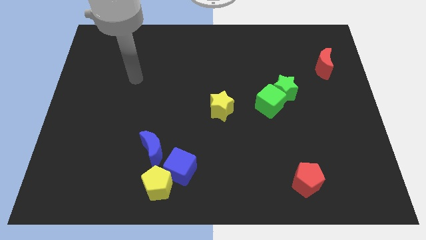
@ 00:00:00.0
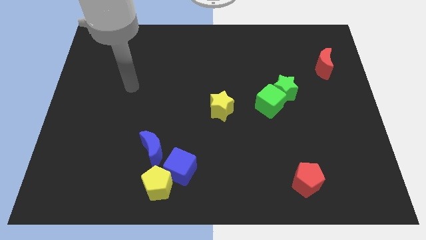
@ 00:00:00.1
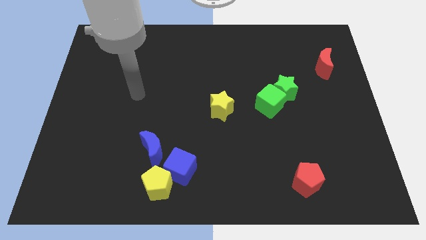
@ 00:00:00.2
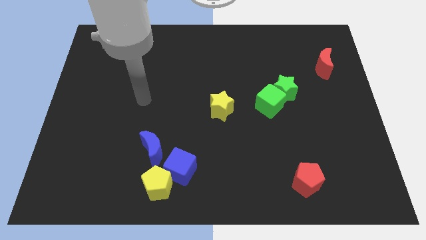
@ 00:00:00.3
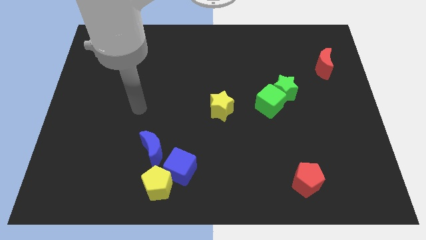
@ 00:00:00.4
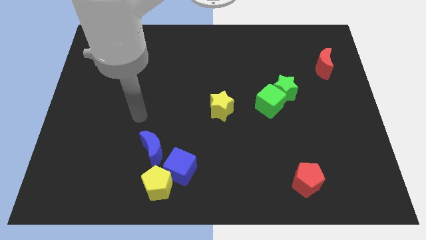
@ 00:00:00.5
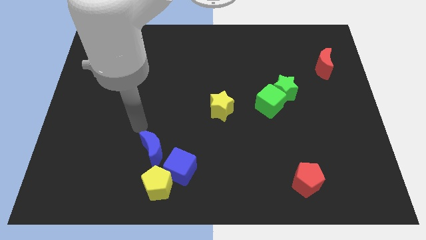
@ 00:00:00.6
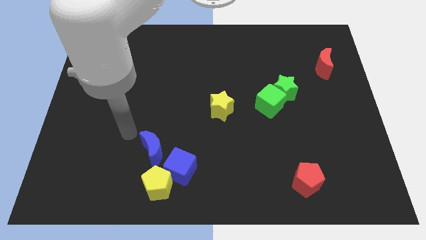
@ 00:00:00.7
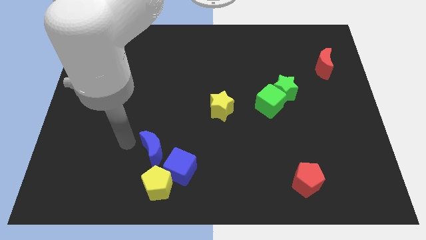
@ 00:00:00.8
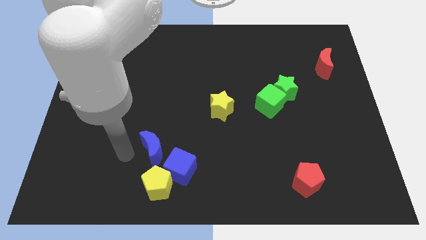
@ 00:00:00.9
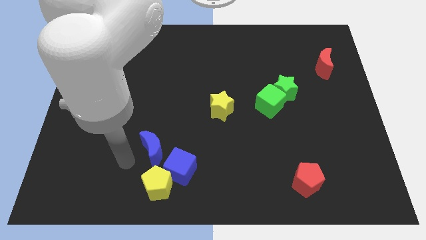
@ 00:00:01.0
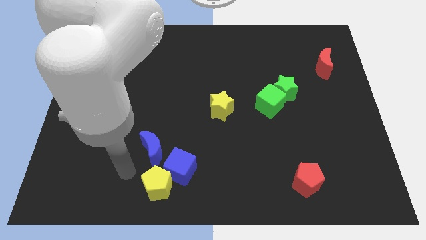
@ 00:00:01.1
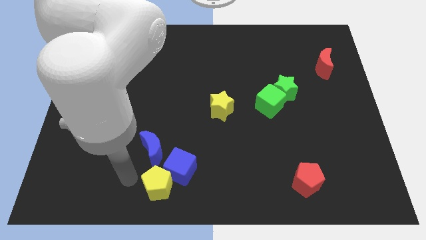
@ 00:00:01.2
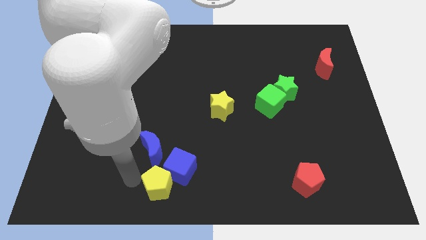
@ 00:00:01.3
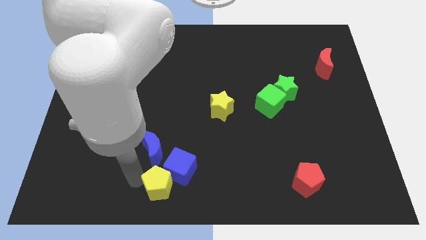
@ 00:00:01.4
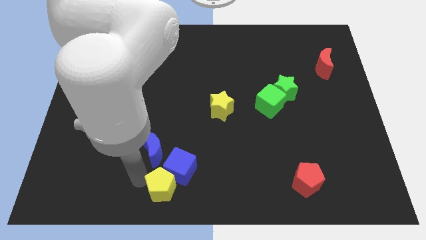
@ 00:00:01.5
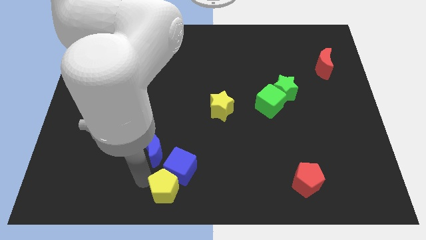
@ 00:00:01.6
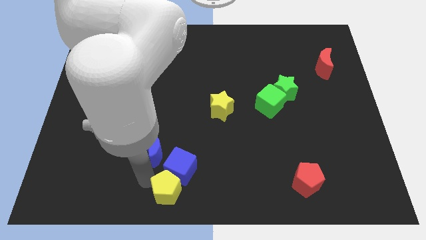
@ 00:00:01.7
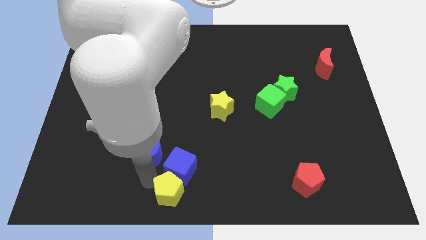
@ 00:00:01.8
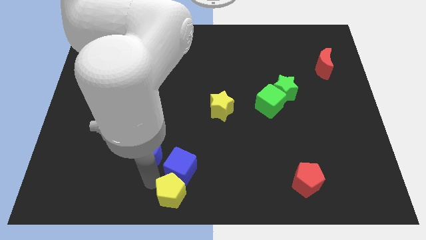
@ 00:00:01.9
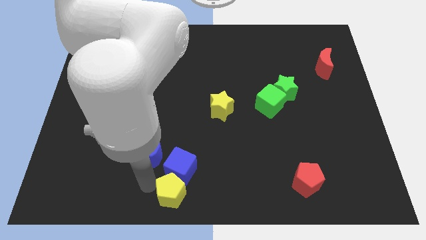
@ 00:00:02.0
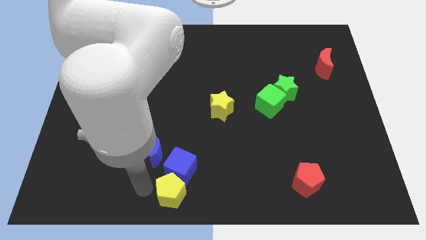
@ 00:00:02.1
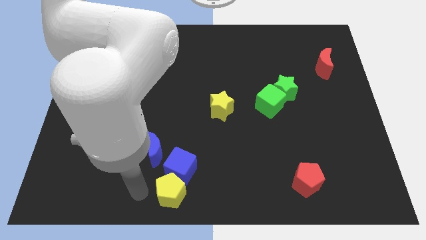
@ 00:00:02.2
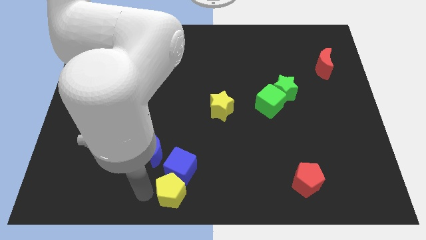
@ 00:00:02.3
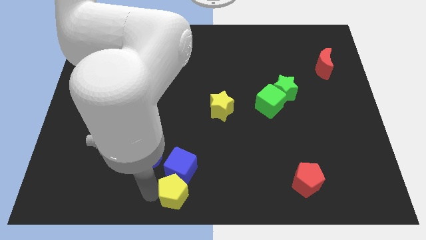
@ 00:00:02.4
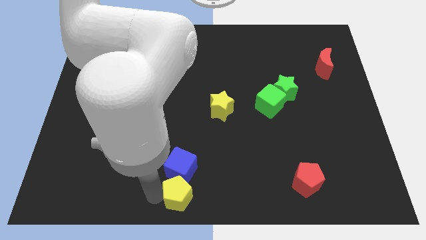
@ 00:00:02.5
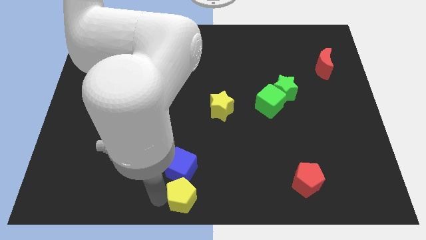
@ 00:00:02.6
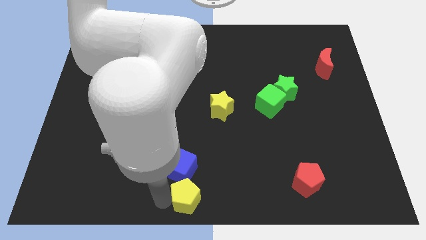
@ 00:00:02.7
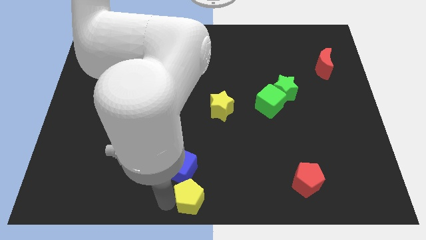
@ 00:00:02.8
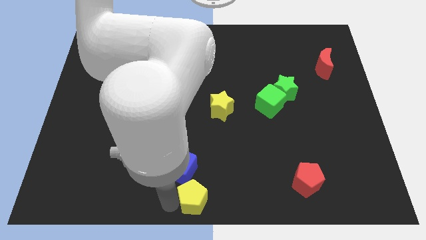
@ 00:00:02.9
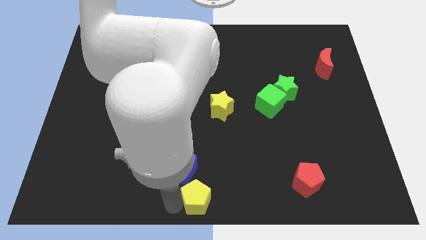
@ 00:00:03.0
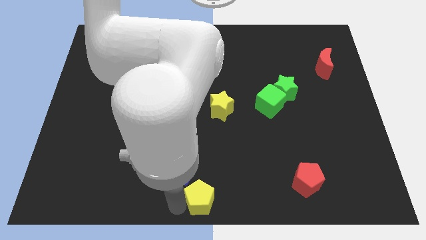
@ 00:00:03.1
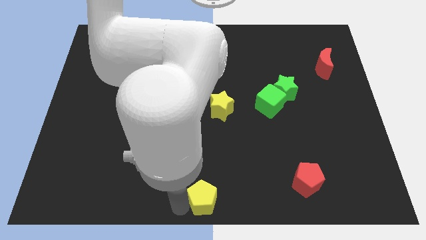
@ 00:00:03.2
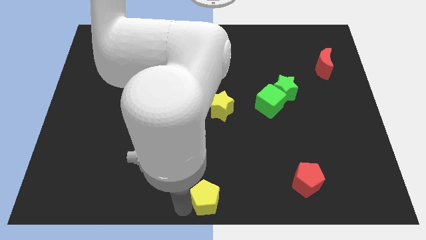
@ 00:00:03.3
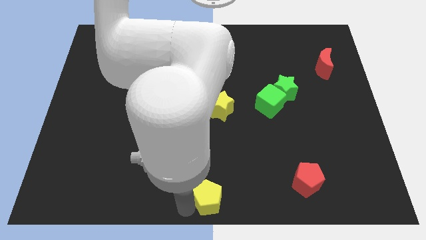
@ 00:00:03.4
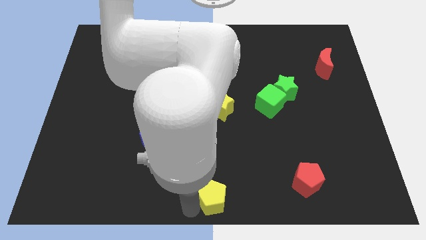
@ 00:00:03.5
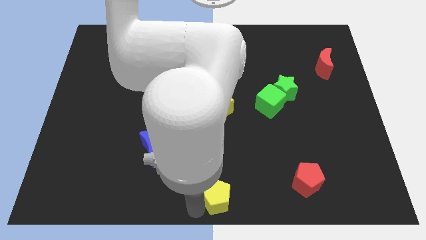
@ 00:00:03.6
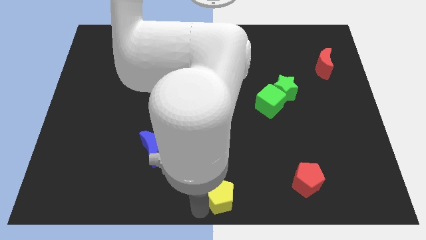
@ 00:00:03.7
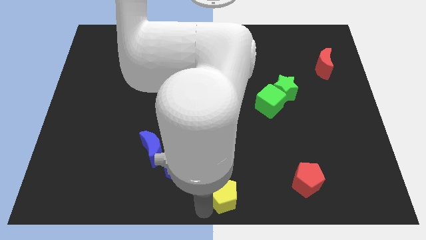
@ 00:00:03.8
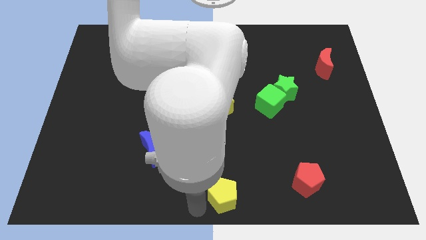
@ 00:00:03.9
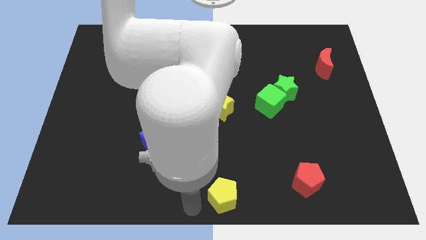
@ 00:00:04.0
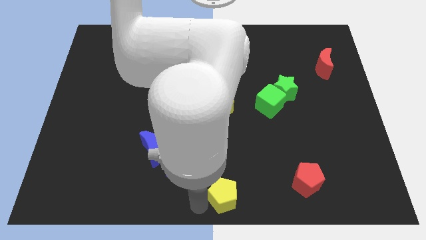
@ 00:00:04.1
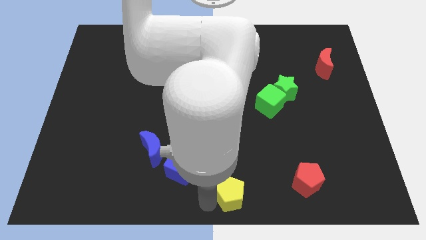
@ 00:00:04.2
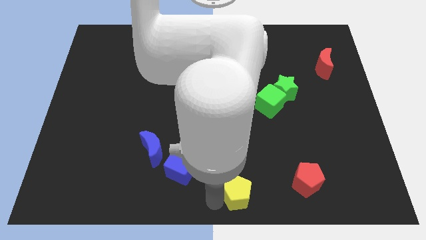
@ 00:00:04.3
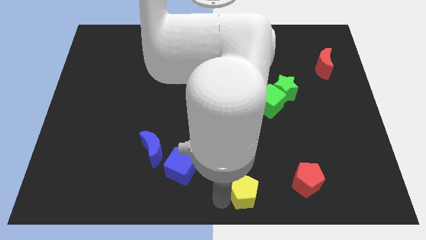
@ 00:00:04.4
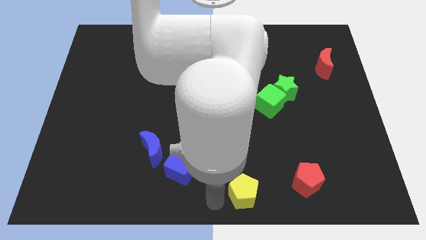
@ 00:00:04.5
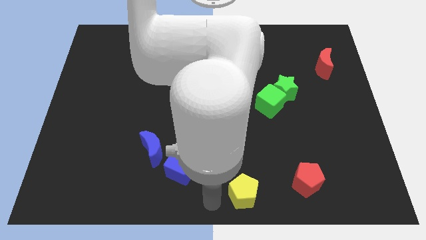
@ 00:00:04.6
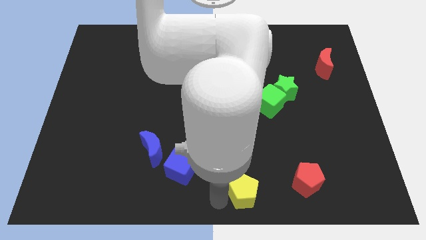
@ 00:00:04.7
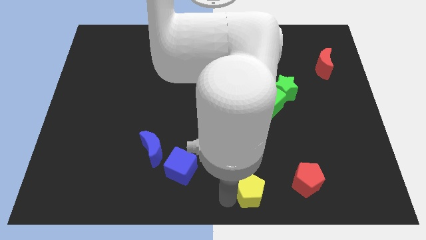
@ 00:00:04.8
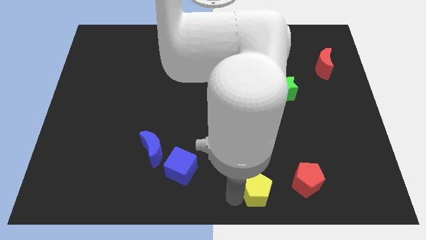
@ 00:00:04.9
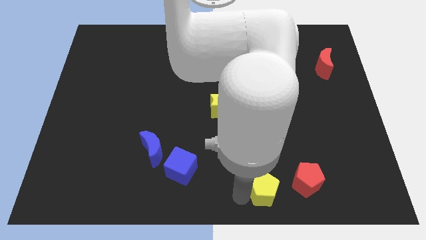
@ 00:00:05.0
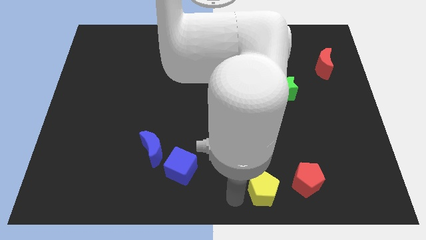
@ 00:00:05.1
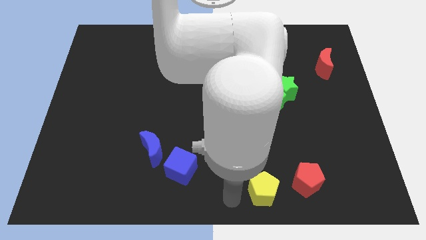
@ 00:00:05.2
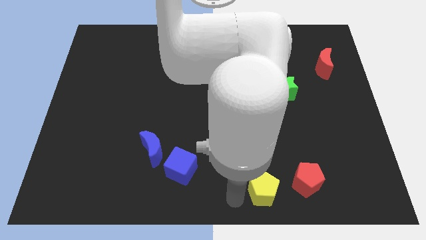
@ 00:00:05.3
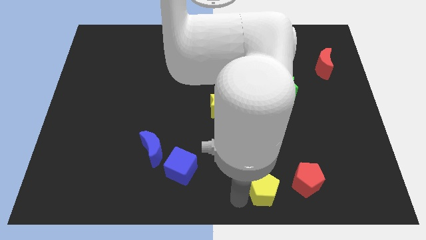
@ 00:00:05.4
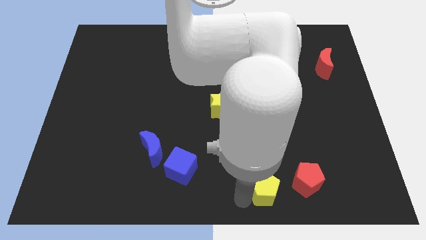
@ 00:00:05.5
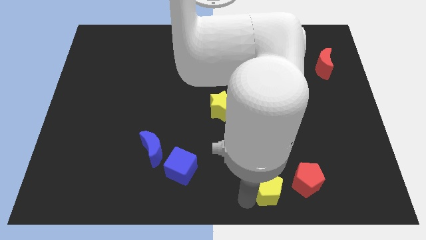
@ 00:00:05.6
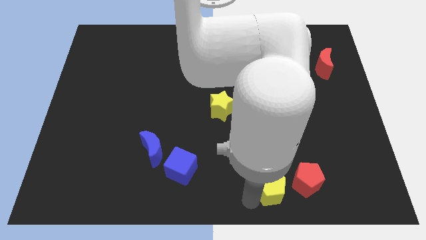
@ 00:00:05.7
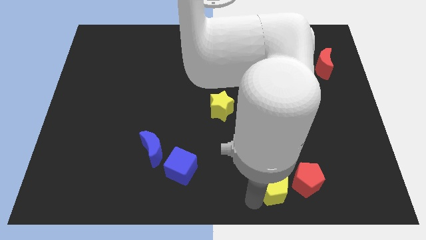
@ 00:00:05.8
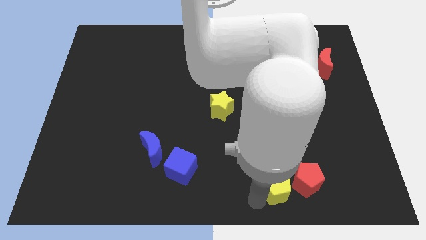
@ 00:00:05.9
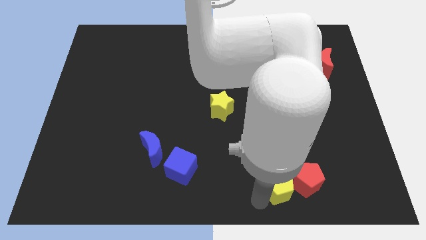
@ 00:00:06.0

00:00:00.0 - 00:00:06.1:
push the yellow pentagon next to the red pentagon

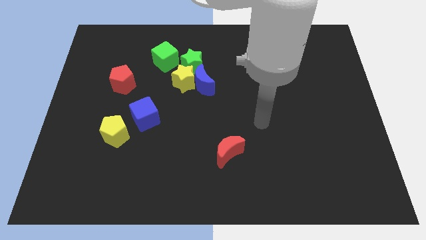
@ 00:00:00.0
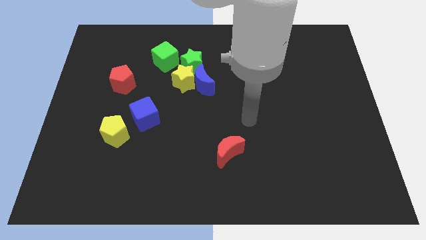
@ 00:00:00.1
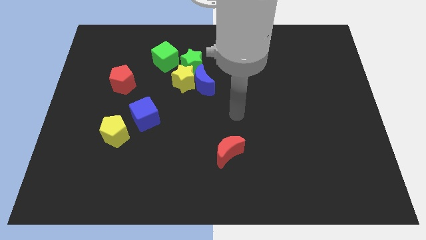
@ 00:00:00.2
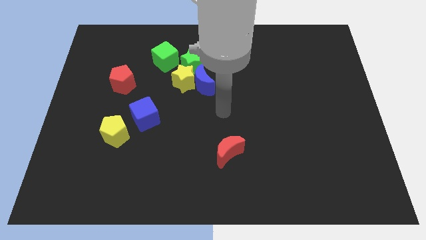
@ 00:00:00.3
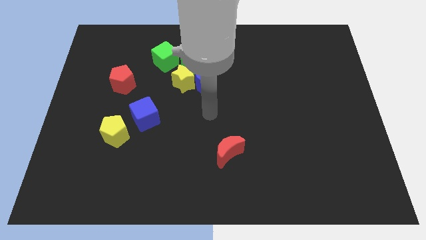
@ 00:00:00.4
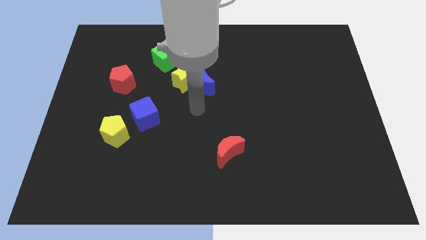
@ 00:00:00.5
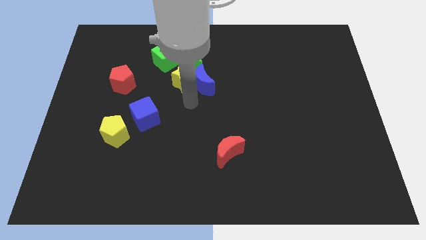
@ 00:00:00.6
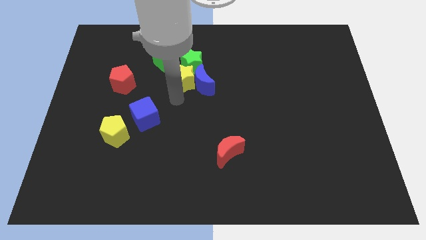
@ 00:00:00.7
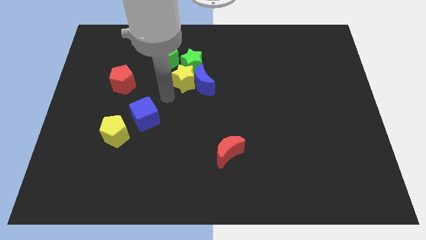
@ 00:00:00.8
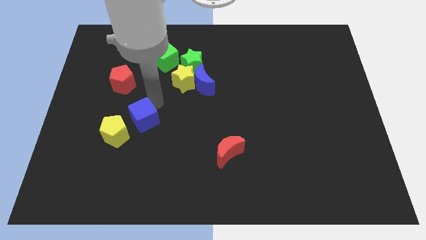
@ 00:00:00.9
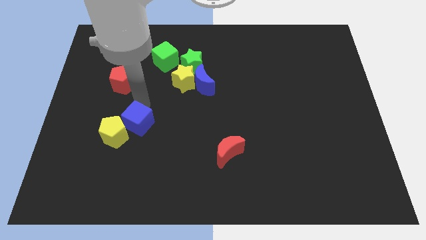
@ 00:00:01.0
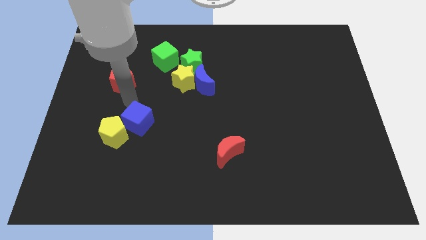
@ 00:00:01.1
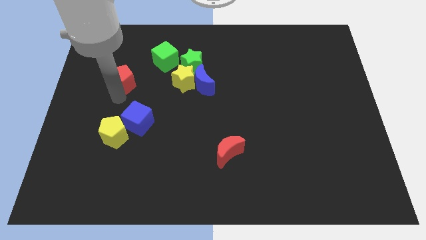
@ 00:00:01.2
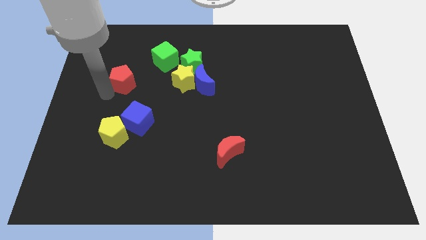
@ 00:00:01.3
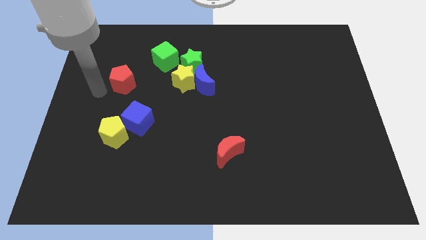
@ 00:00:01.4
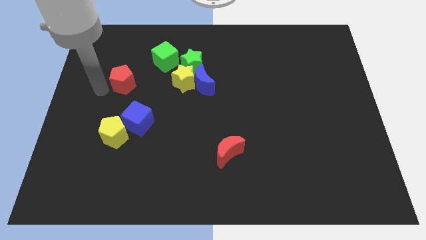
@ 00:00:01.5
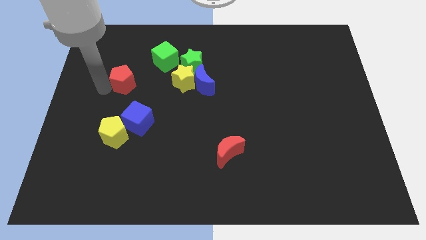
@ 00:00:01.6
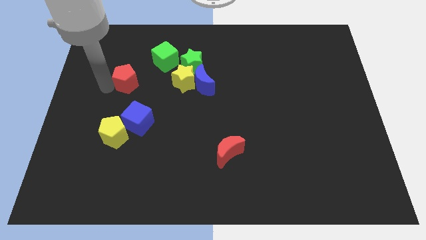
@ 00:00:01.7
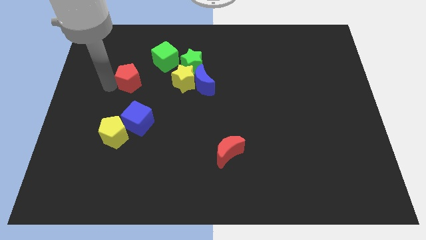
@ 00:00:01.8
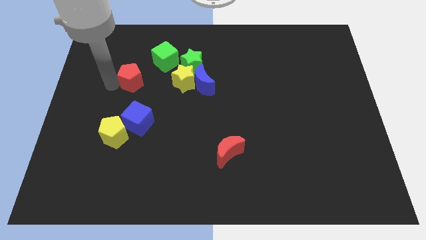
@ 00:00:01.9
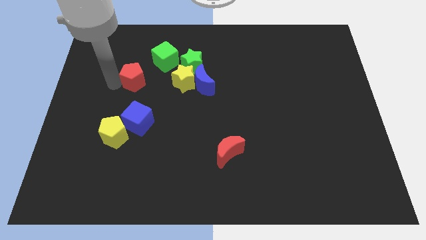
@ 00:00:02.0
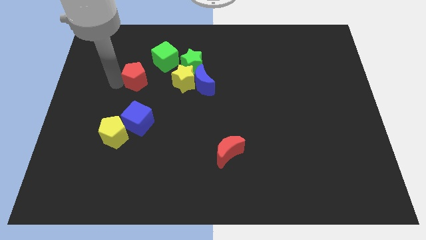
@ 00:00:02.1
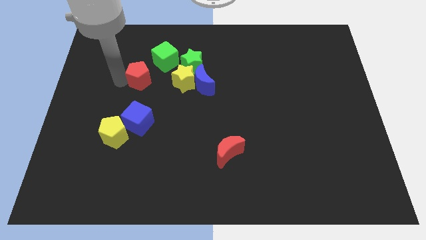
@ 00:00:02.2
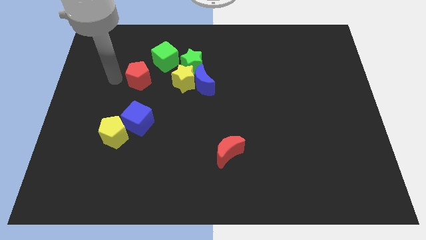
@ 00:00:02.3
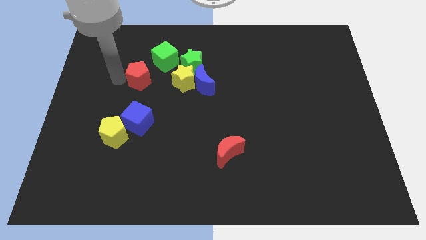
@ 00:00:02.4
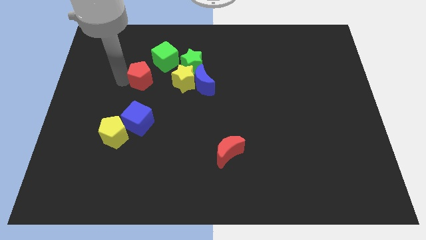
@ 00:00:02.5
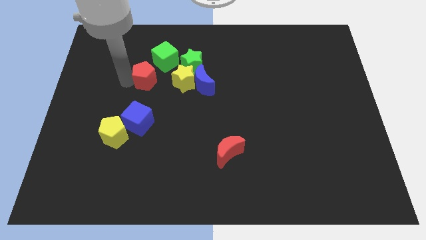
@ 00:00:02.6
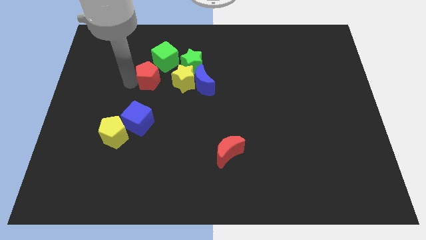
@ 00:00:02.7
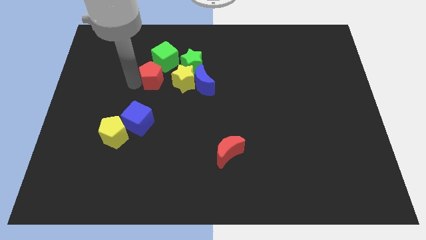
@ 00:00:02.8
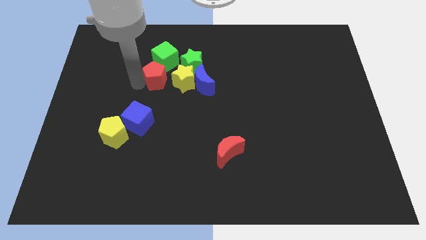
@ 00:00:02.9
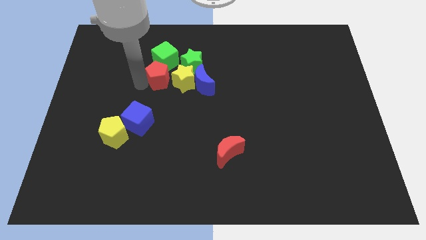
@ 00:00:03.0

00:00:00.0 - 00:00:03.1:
move the red pentagon next to the yellow star
